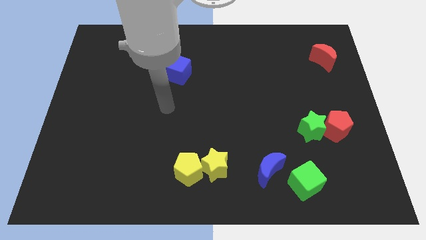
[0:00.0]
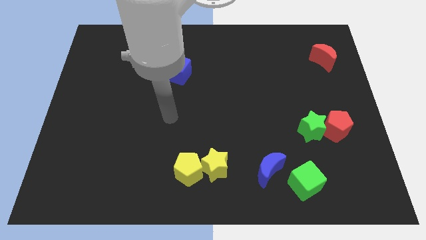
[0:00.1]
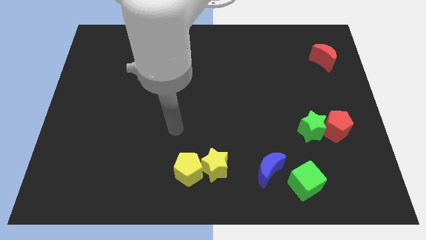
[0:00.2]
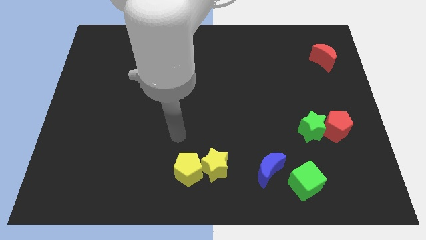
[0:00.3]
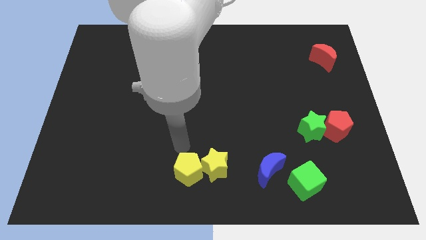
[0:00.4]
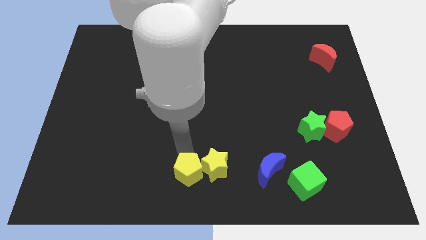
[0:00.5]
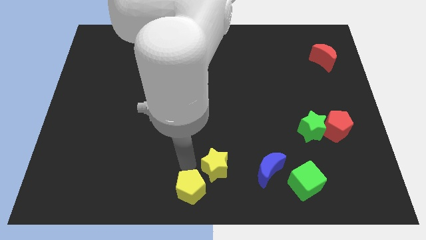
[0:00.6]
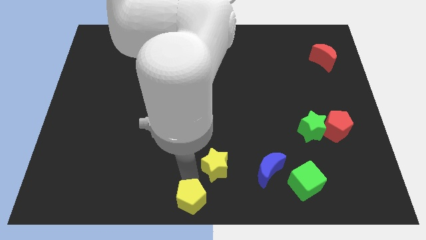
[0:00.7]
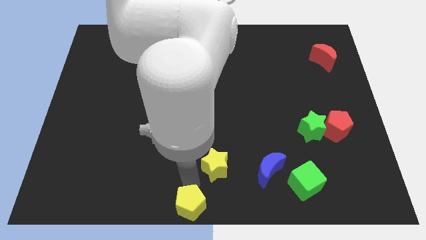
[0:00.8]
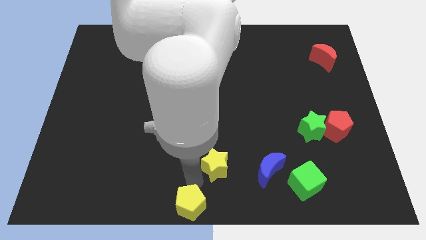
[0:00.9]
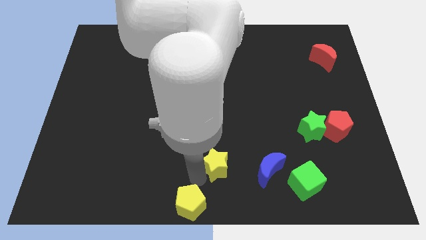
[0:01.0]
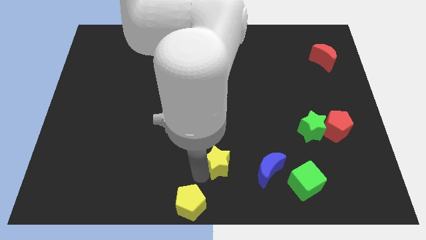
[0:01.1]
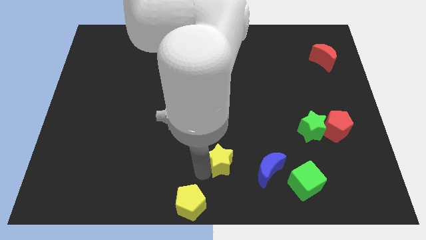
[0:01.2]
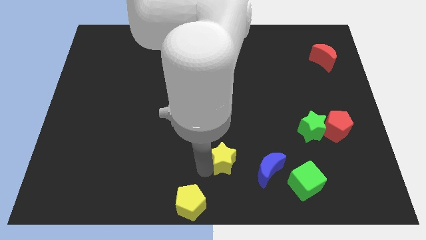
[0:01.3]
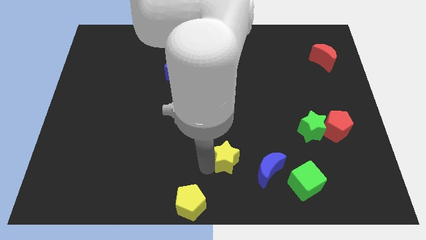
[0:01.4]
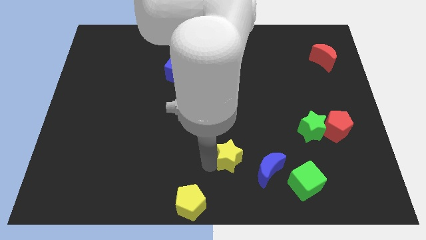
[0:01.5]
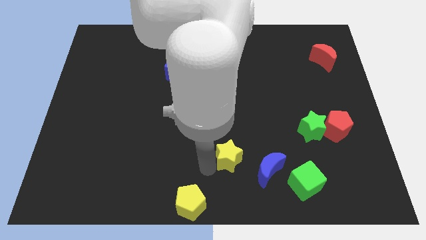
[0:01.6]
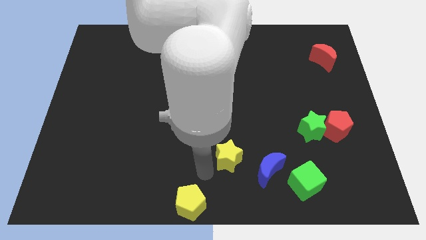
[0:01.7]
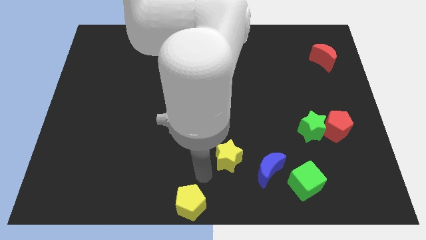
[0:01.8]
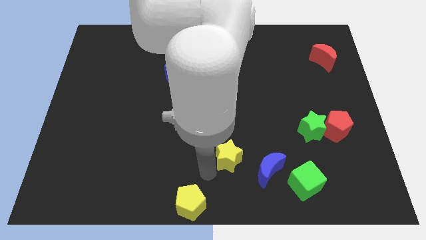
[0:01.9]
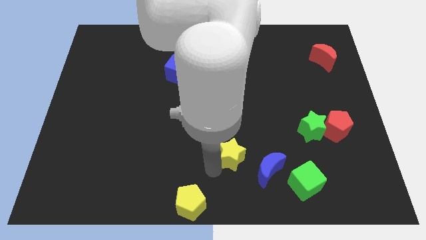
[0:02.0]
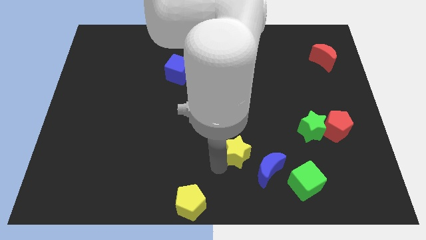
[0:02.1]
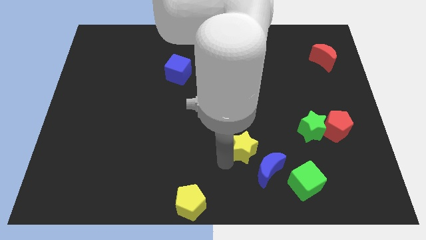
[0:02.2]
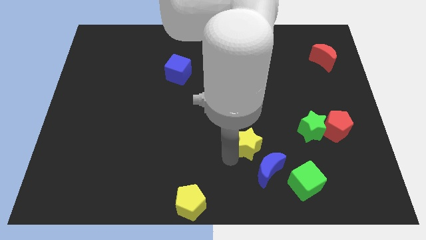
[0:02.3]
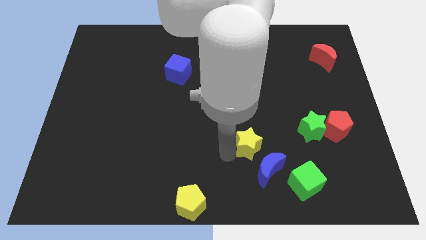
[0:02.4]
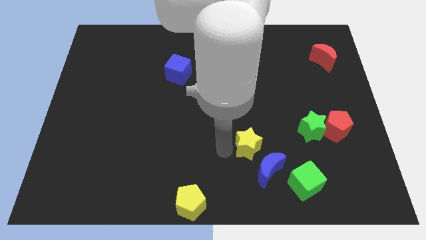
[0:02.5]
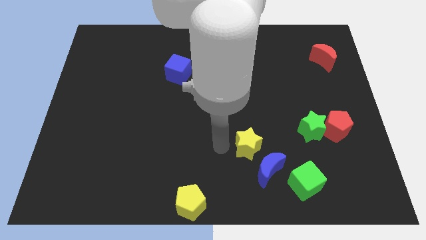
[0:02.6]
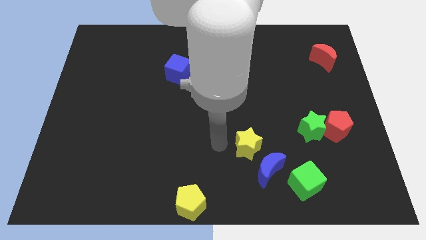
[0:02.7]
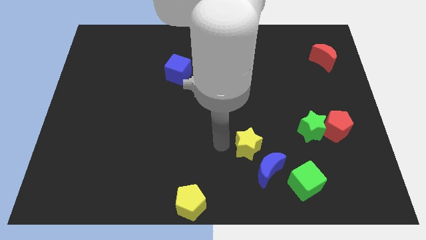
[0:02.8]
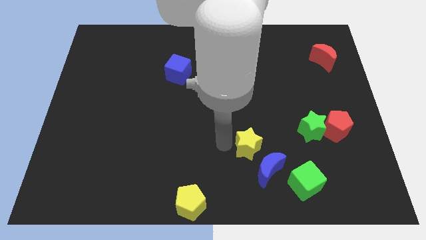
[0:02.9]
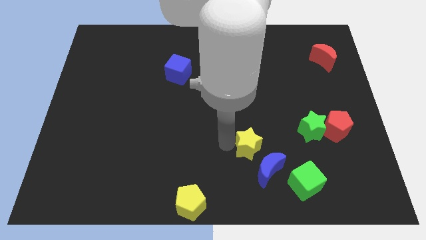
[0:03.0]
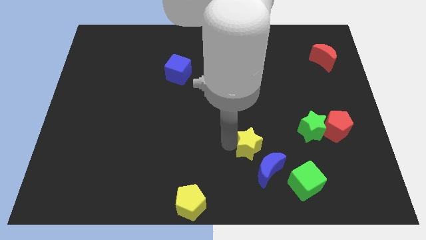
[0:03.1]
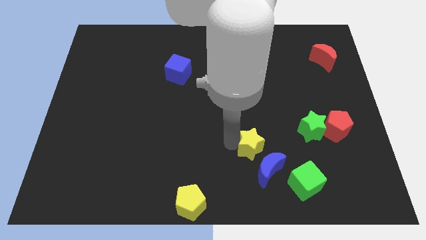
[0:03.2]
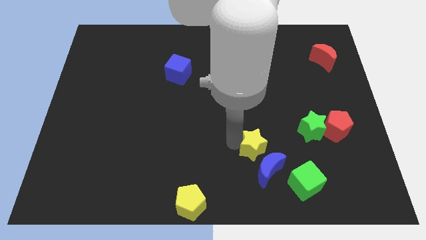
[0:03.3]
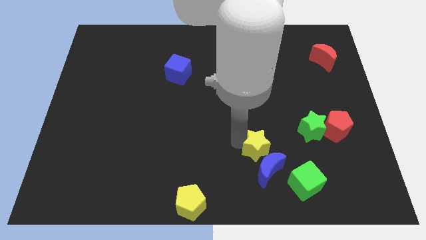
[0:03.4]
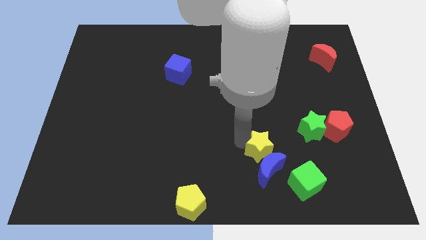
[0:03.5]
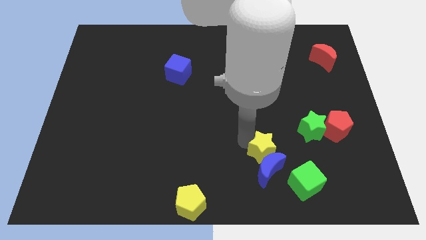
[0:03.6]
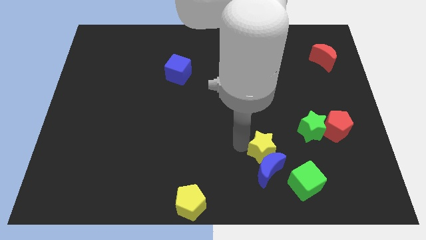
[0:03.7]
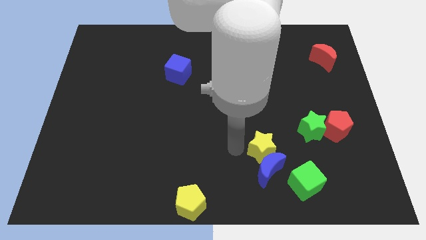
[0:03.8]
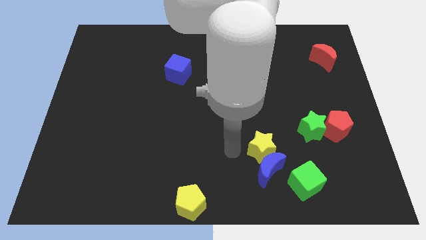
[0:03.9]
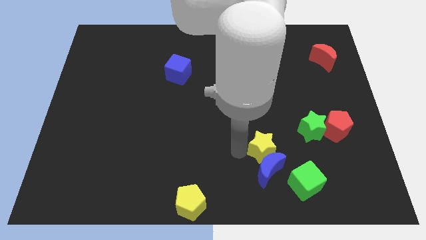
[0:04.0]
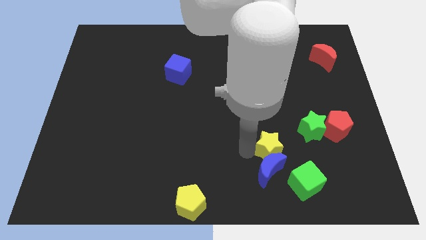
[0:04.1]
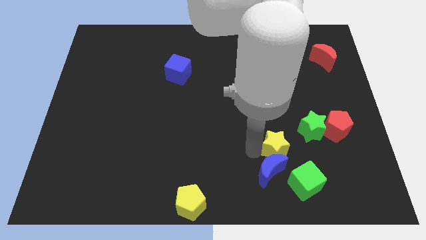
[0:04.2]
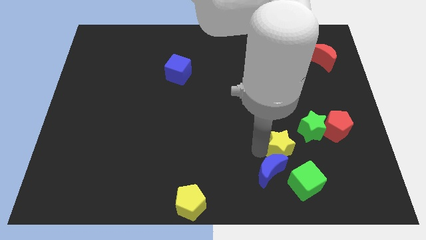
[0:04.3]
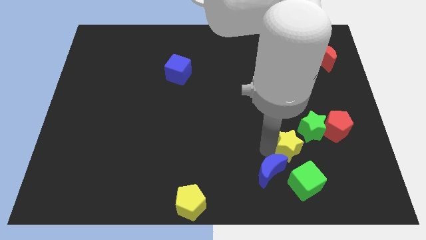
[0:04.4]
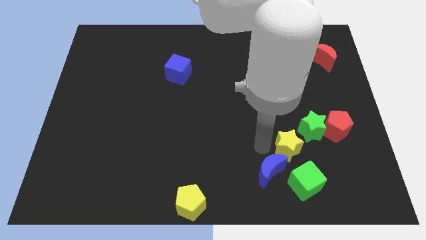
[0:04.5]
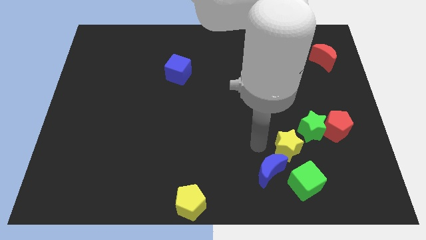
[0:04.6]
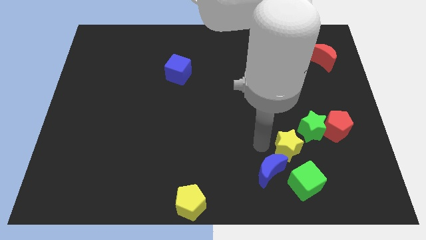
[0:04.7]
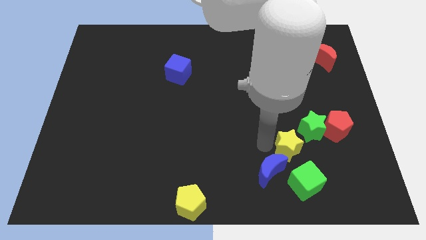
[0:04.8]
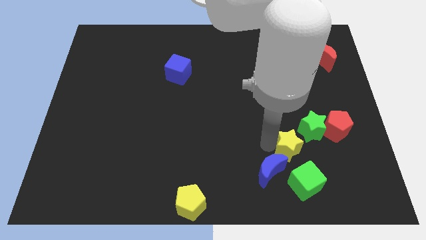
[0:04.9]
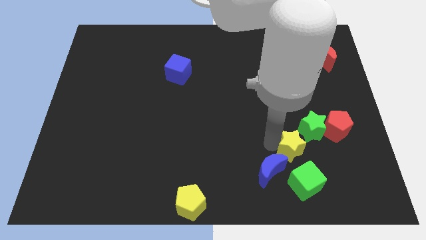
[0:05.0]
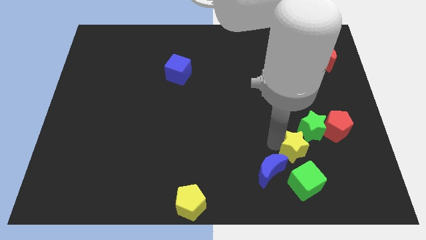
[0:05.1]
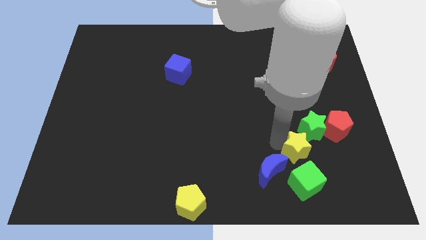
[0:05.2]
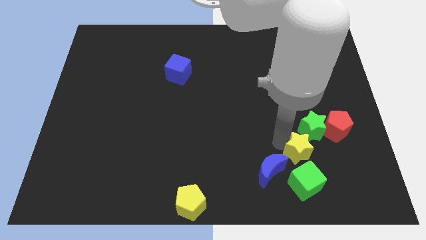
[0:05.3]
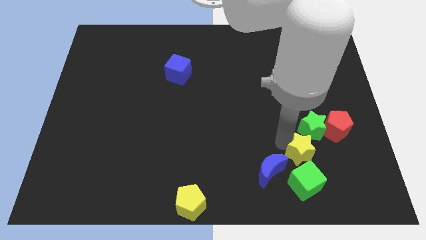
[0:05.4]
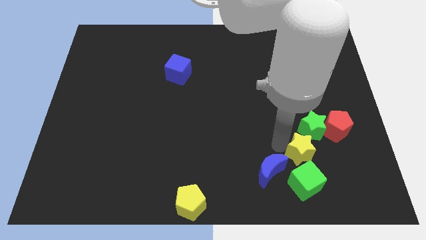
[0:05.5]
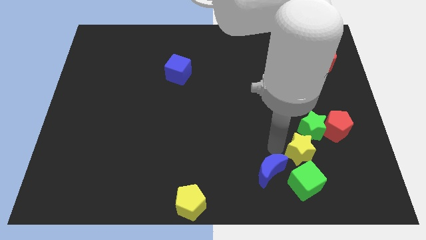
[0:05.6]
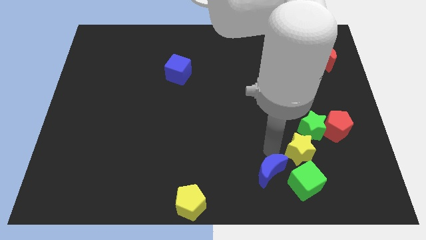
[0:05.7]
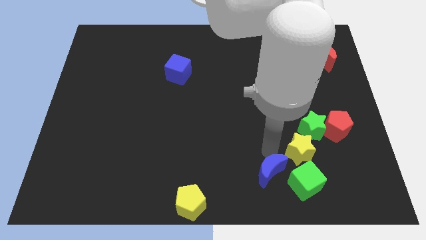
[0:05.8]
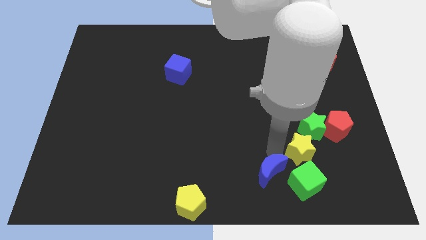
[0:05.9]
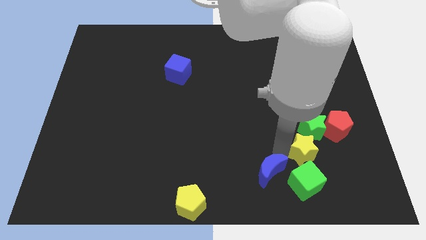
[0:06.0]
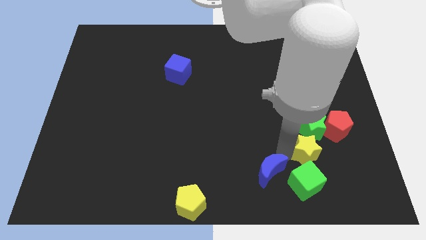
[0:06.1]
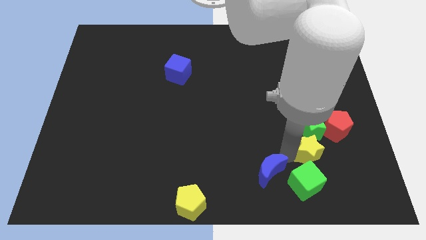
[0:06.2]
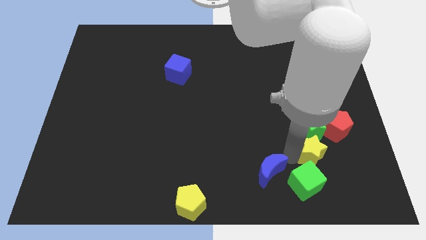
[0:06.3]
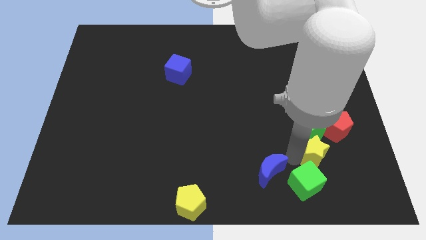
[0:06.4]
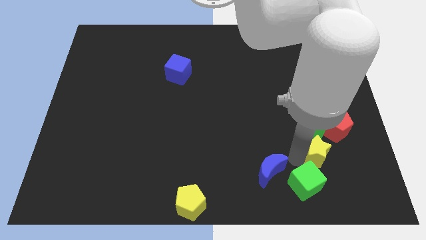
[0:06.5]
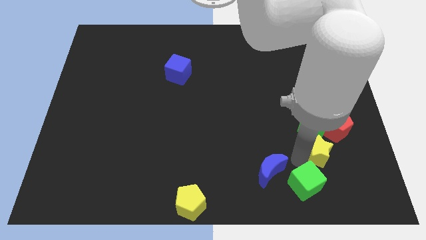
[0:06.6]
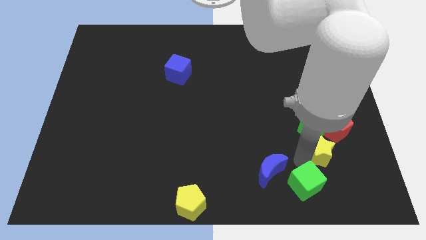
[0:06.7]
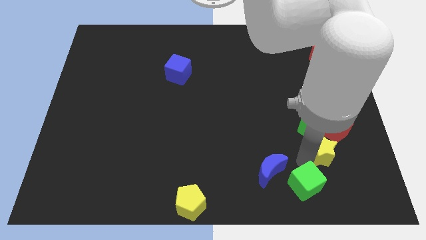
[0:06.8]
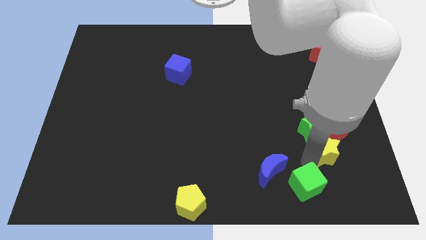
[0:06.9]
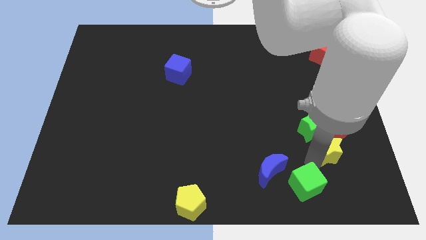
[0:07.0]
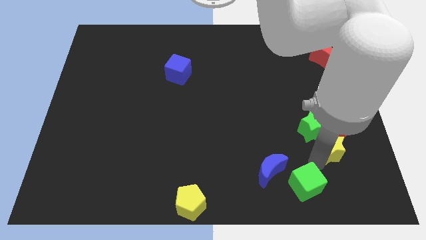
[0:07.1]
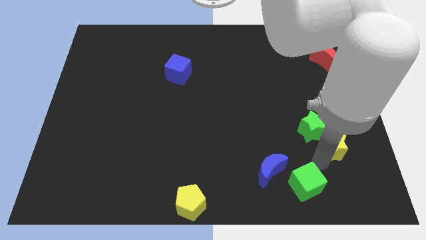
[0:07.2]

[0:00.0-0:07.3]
move the yellow star to the red pentagon

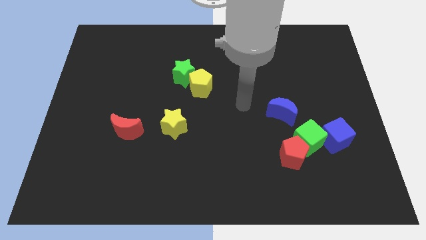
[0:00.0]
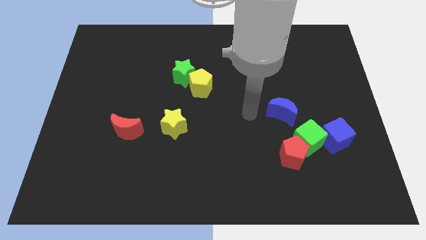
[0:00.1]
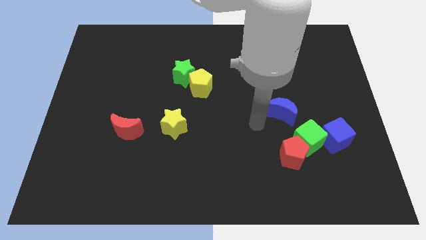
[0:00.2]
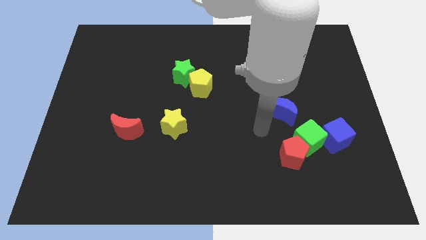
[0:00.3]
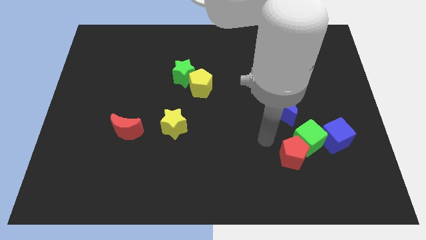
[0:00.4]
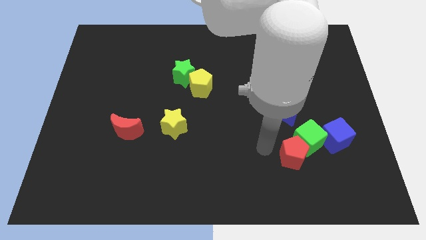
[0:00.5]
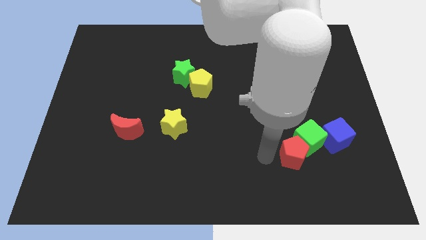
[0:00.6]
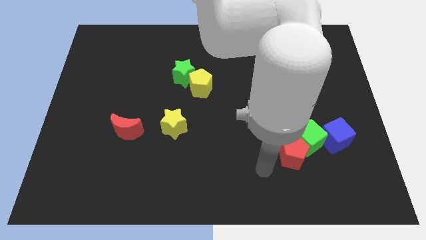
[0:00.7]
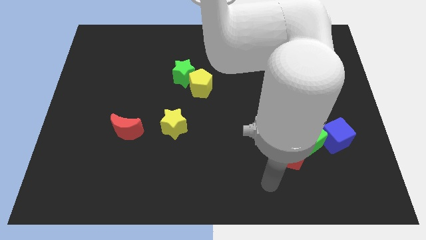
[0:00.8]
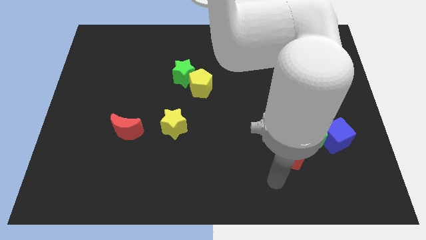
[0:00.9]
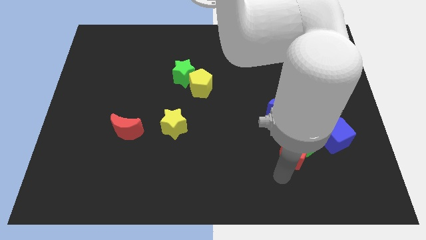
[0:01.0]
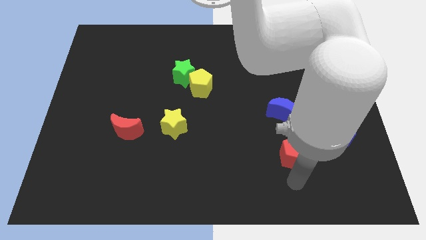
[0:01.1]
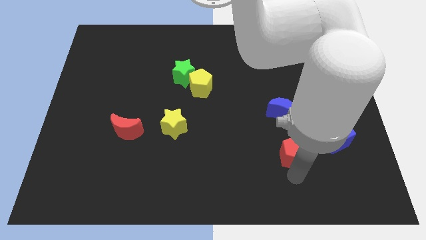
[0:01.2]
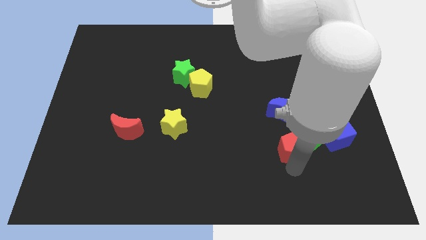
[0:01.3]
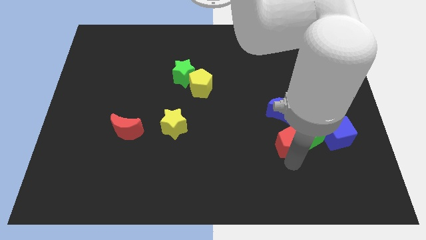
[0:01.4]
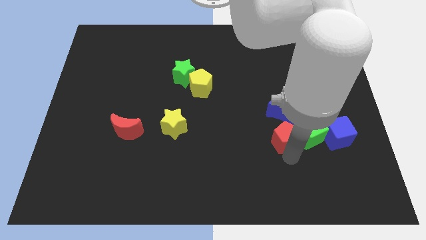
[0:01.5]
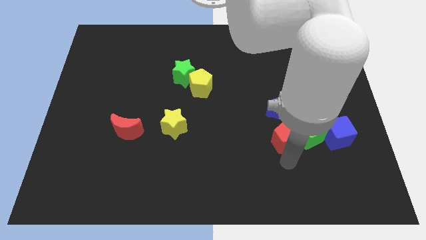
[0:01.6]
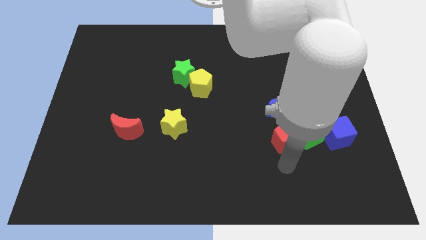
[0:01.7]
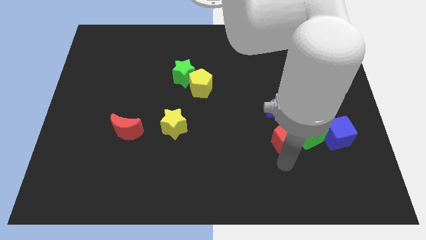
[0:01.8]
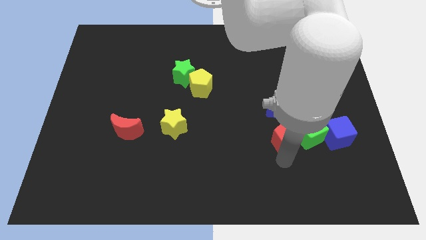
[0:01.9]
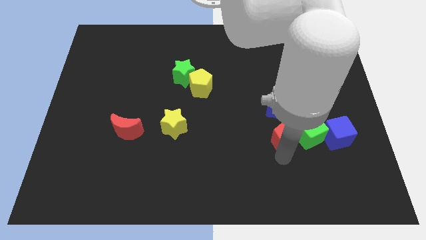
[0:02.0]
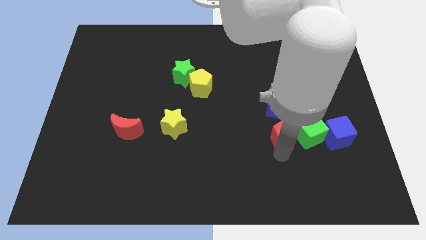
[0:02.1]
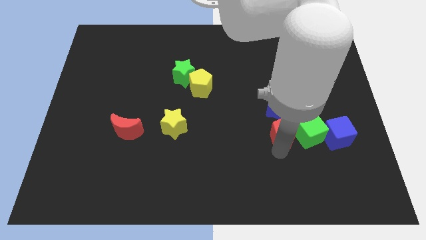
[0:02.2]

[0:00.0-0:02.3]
slide the red pentagon next to the blue moon
